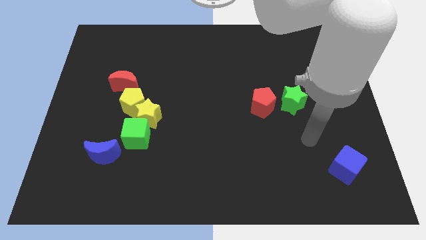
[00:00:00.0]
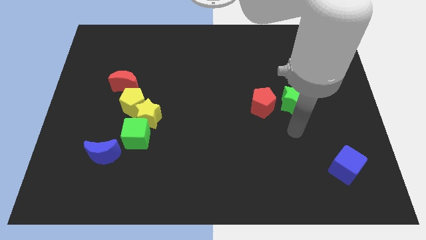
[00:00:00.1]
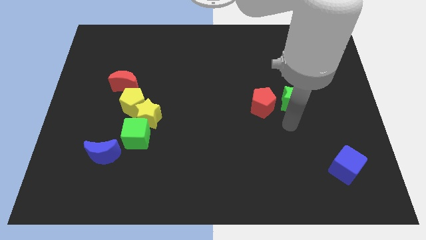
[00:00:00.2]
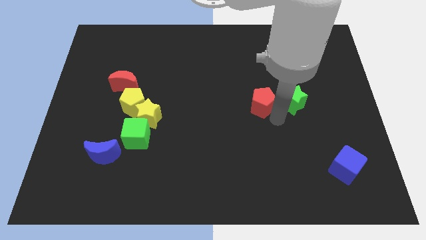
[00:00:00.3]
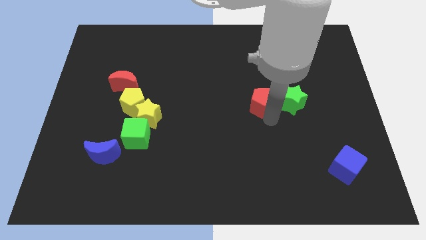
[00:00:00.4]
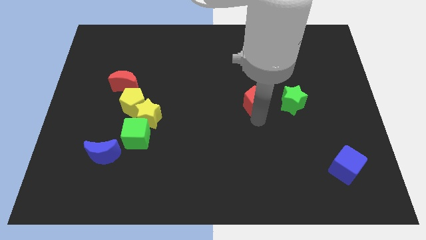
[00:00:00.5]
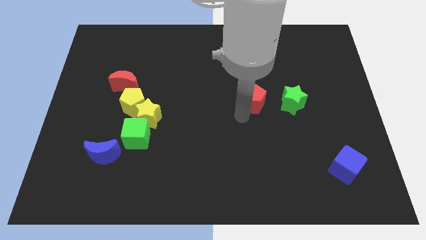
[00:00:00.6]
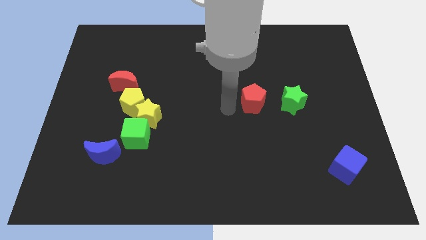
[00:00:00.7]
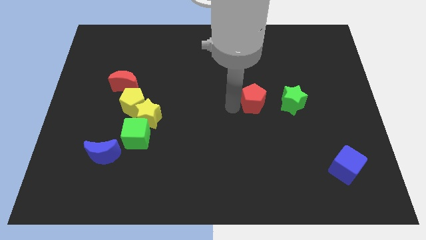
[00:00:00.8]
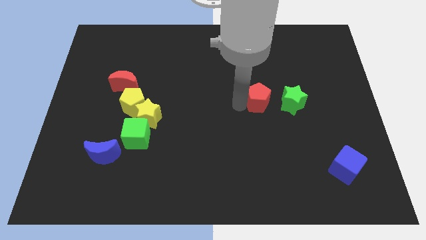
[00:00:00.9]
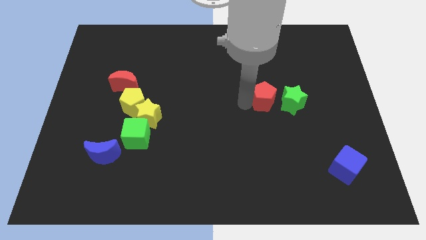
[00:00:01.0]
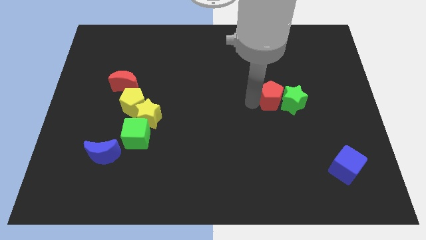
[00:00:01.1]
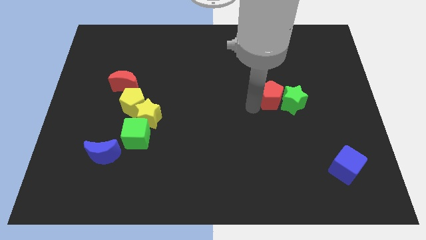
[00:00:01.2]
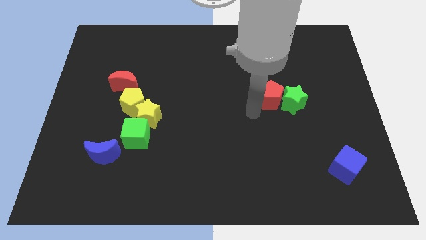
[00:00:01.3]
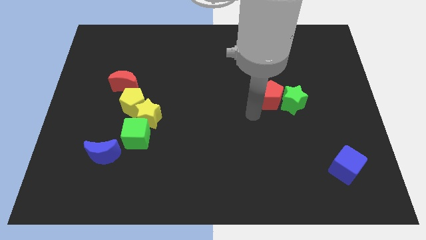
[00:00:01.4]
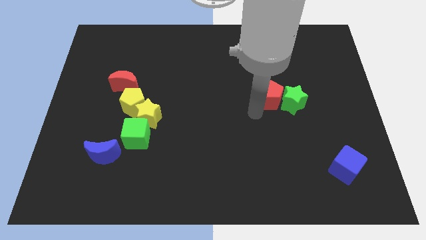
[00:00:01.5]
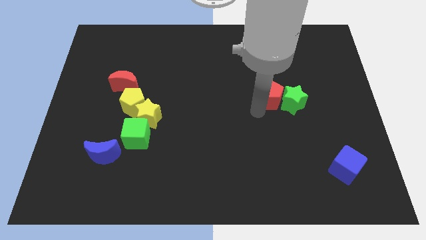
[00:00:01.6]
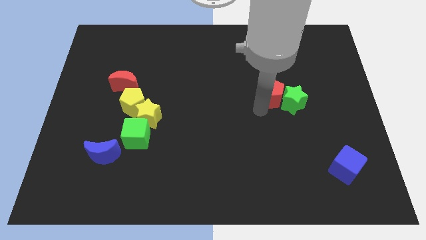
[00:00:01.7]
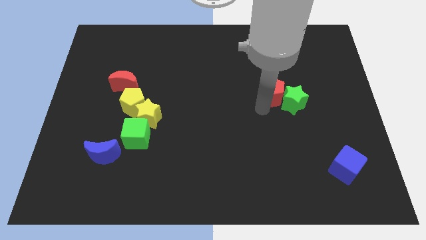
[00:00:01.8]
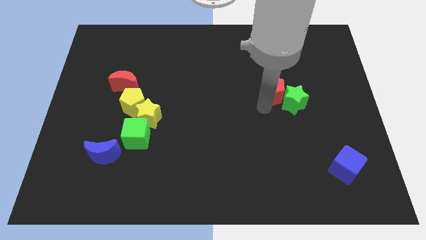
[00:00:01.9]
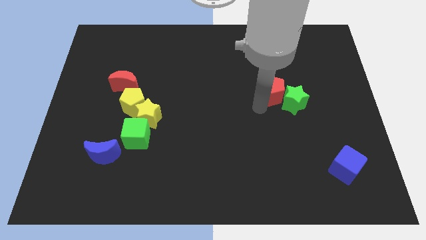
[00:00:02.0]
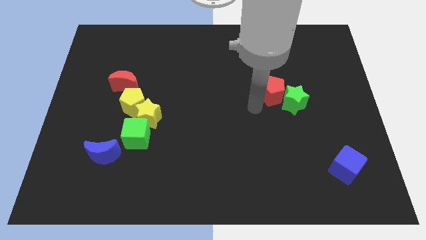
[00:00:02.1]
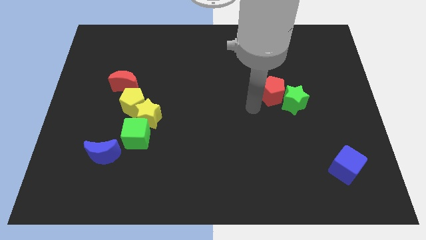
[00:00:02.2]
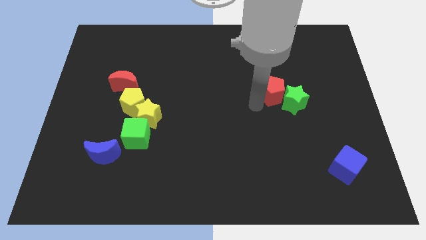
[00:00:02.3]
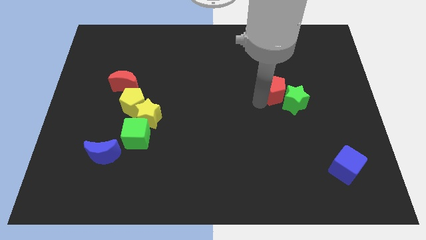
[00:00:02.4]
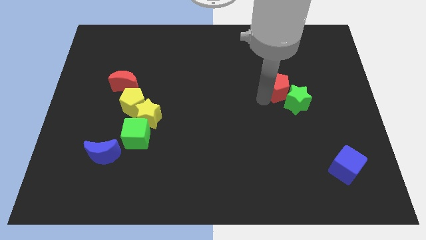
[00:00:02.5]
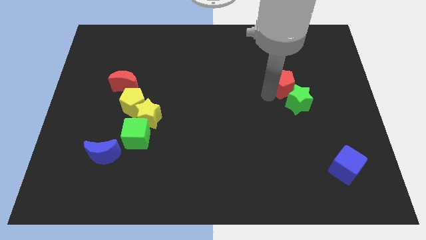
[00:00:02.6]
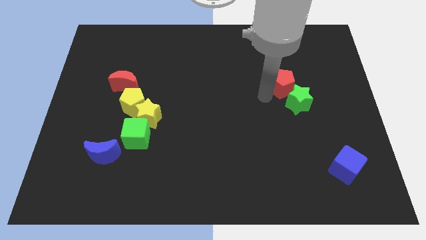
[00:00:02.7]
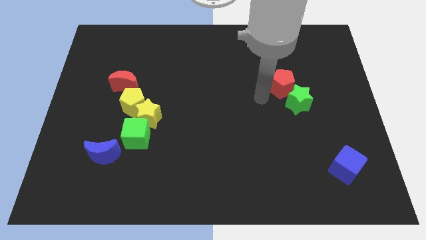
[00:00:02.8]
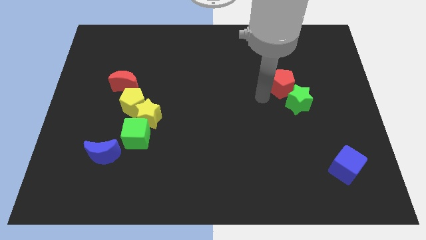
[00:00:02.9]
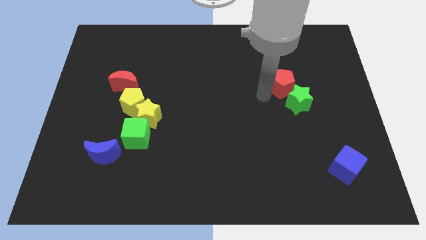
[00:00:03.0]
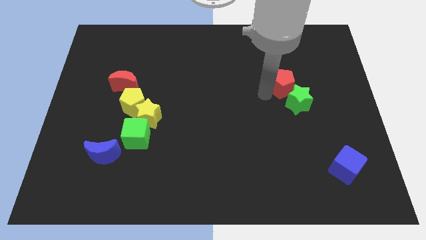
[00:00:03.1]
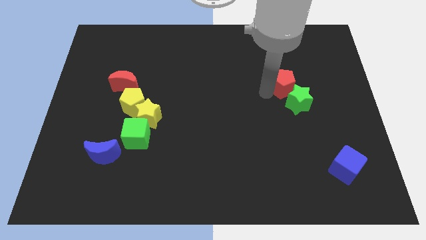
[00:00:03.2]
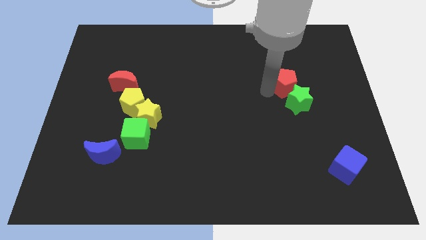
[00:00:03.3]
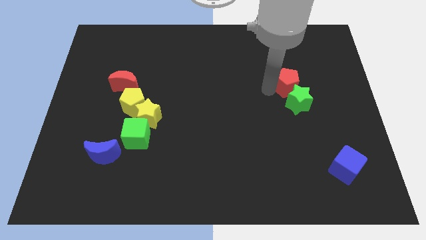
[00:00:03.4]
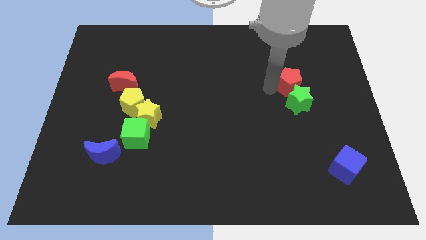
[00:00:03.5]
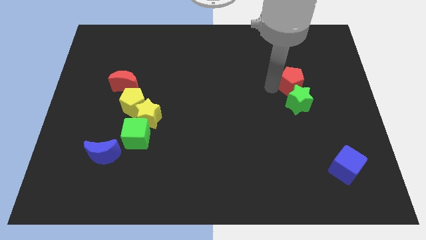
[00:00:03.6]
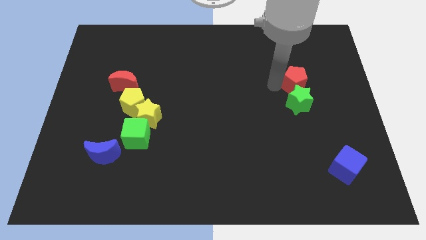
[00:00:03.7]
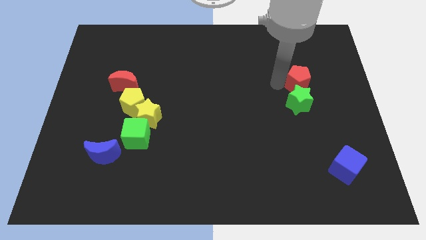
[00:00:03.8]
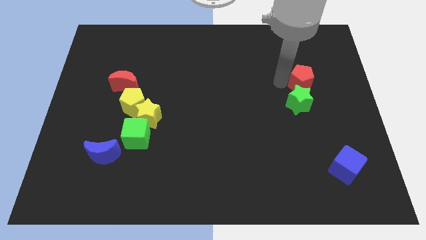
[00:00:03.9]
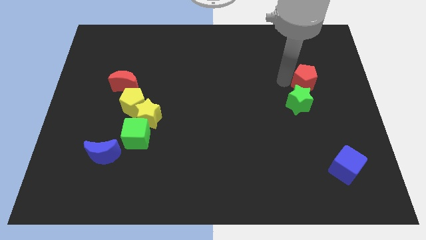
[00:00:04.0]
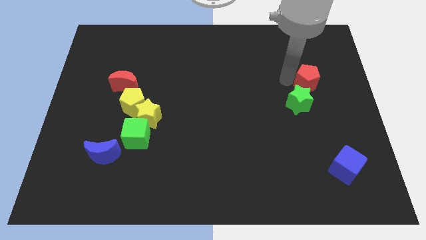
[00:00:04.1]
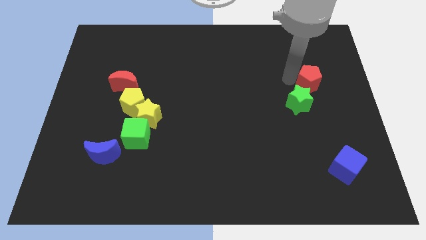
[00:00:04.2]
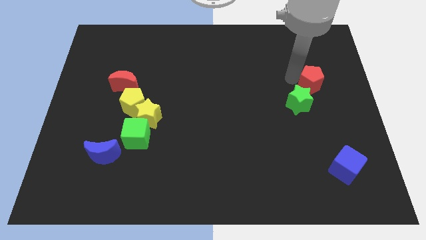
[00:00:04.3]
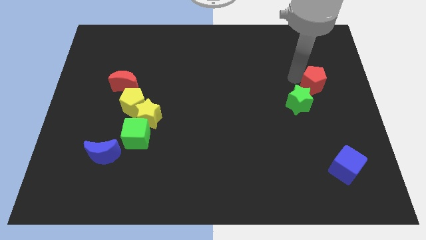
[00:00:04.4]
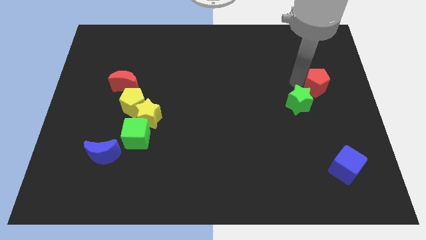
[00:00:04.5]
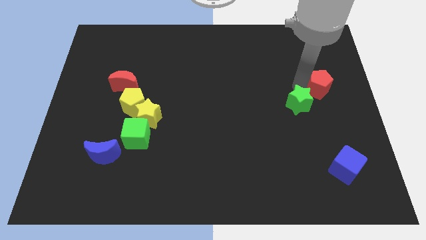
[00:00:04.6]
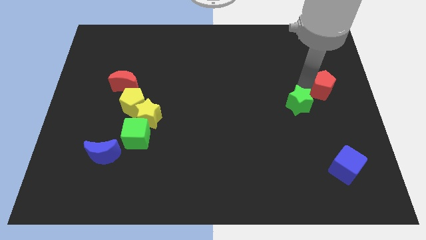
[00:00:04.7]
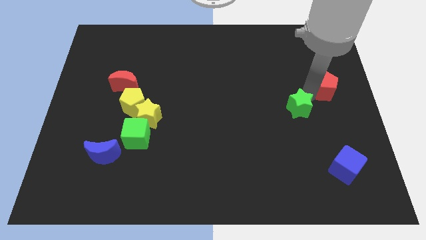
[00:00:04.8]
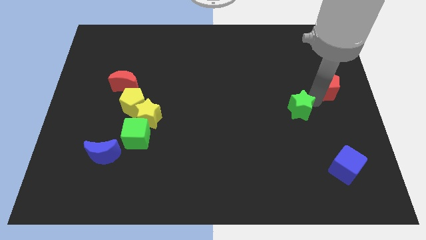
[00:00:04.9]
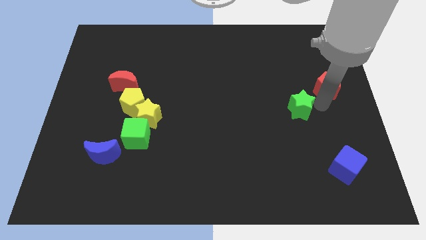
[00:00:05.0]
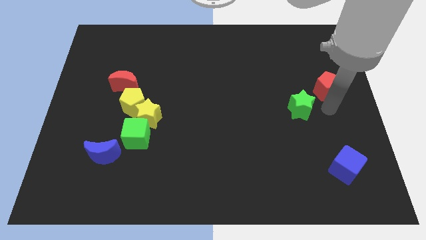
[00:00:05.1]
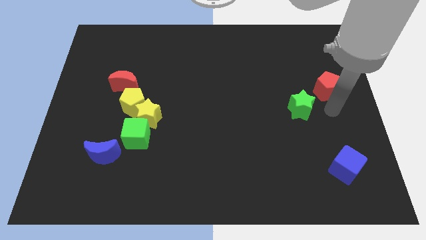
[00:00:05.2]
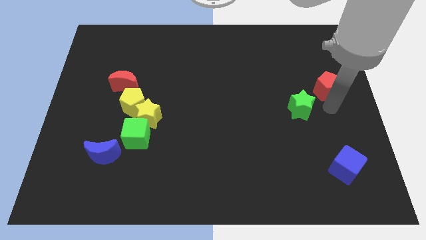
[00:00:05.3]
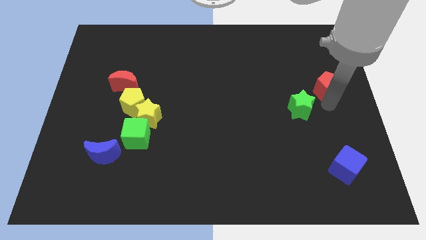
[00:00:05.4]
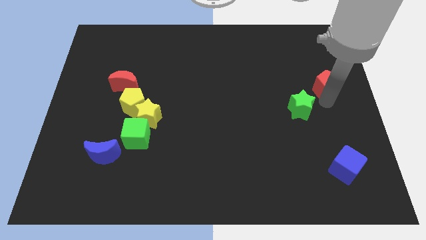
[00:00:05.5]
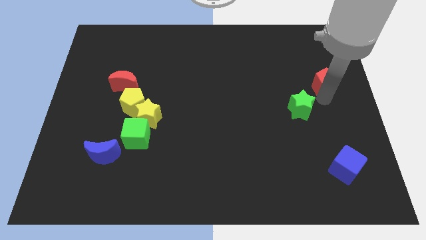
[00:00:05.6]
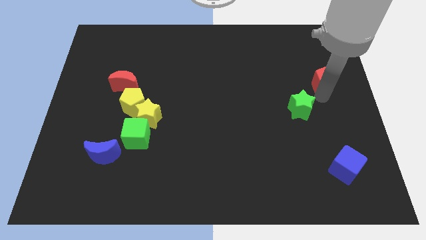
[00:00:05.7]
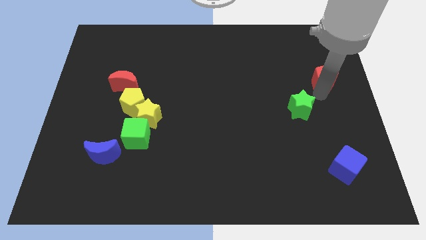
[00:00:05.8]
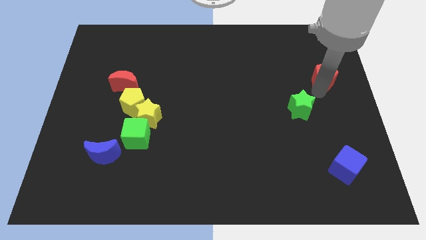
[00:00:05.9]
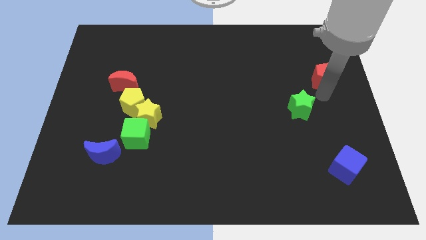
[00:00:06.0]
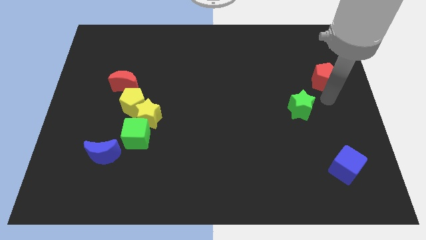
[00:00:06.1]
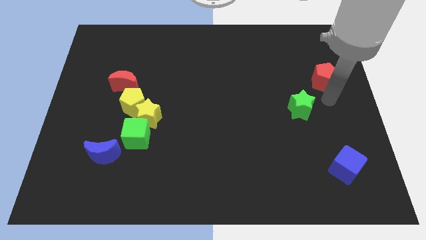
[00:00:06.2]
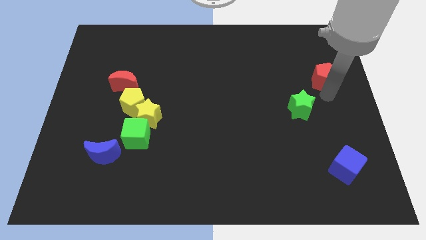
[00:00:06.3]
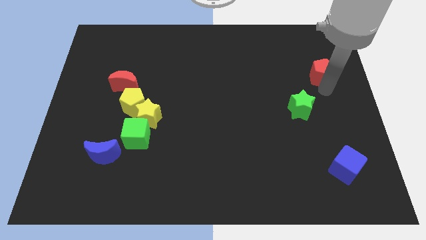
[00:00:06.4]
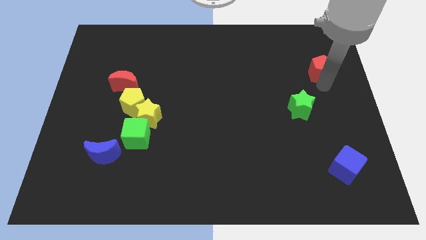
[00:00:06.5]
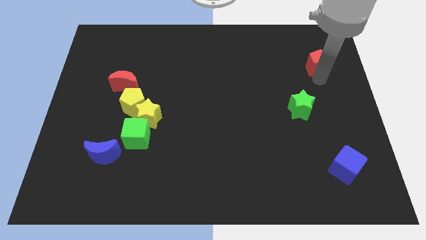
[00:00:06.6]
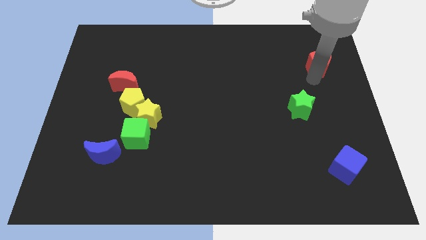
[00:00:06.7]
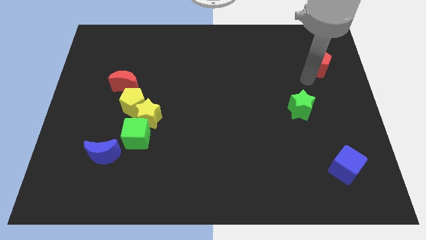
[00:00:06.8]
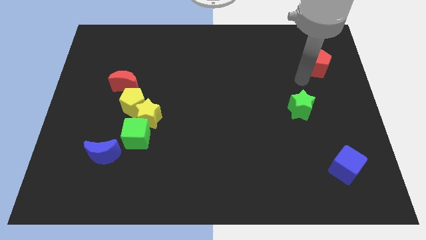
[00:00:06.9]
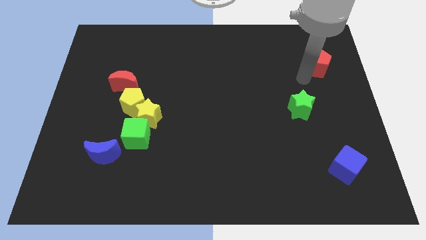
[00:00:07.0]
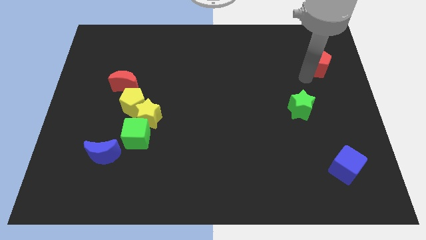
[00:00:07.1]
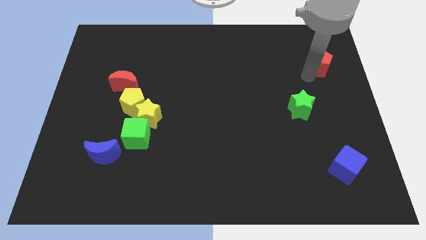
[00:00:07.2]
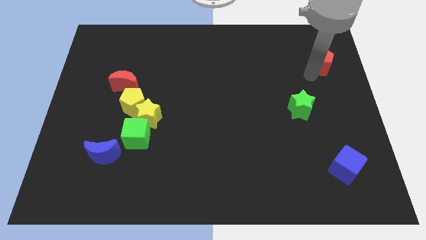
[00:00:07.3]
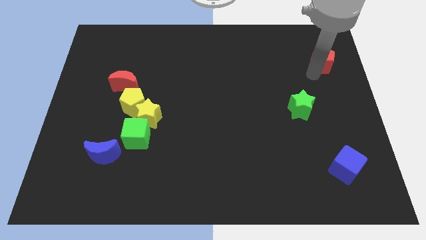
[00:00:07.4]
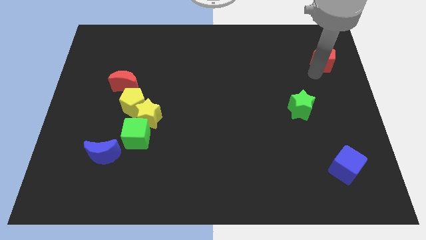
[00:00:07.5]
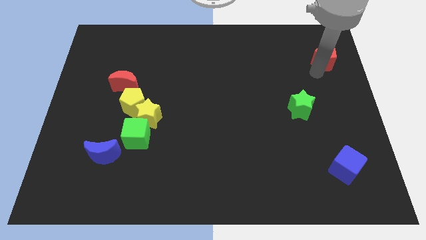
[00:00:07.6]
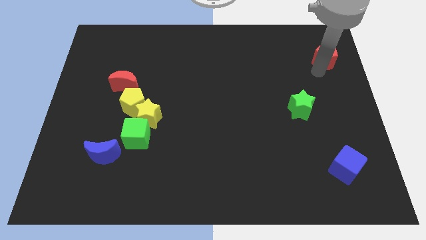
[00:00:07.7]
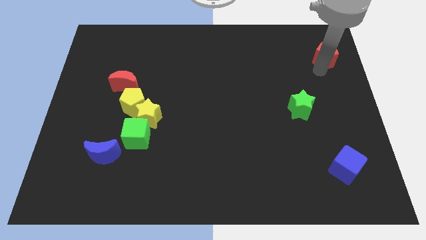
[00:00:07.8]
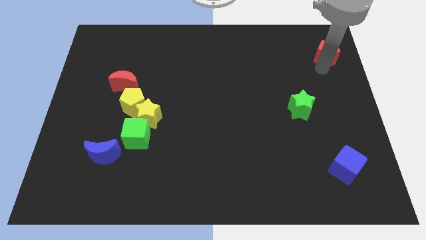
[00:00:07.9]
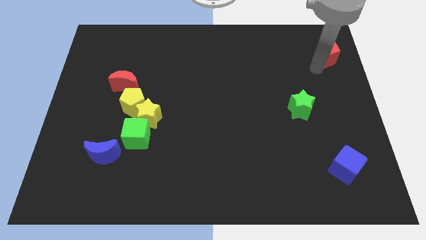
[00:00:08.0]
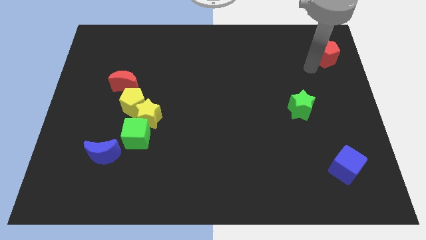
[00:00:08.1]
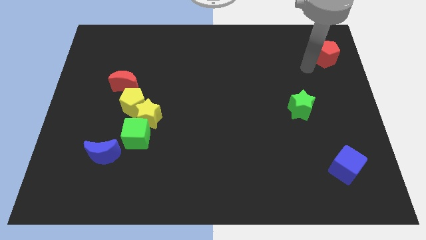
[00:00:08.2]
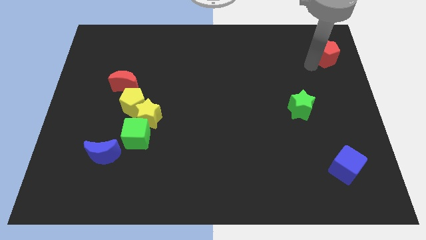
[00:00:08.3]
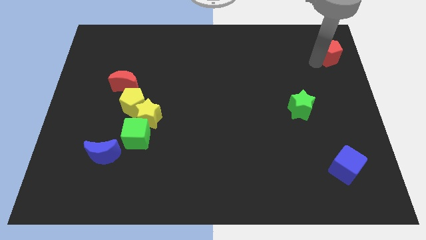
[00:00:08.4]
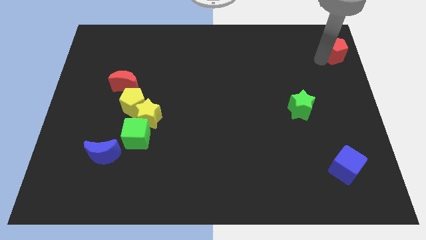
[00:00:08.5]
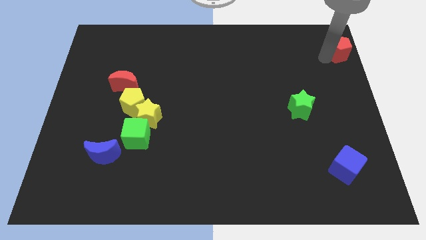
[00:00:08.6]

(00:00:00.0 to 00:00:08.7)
push the red pentagon to the top right of the board
